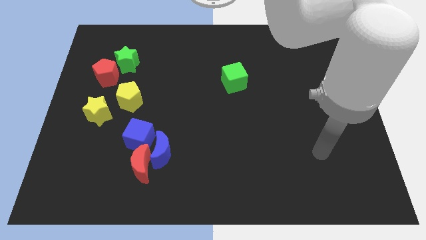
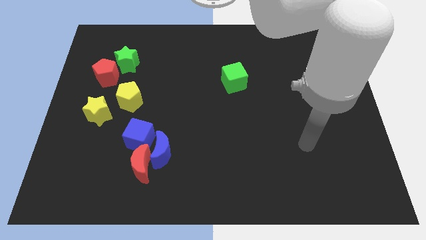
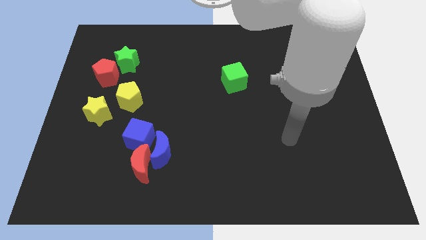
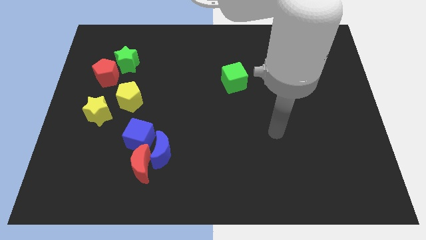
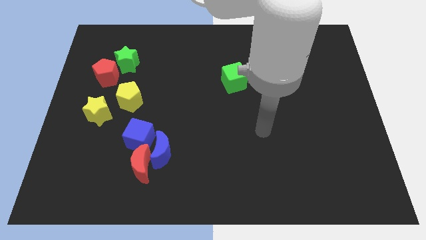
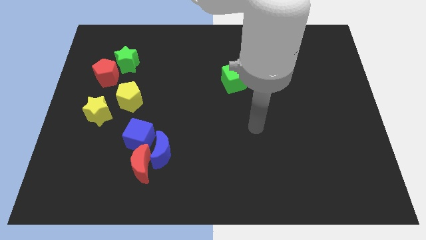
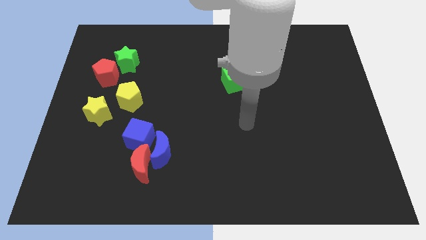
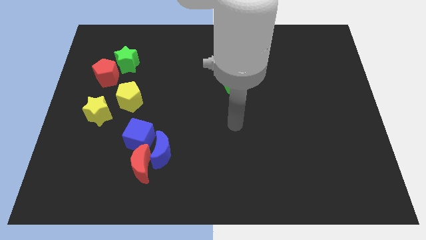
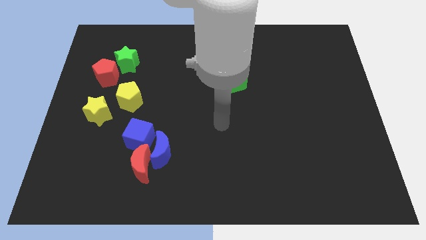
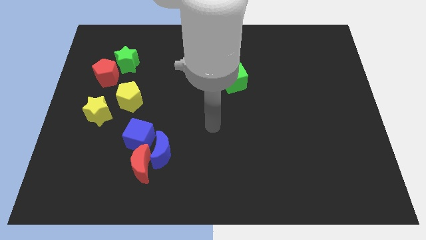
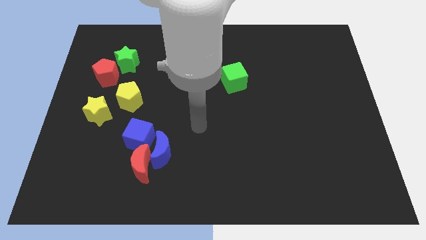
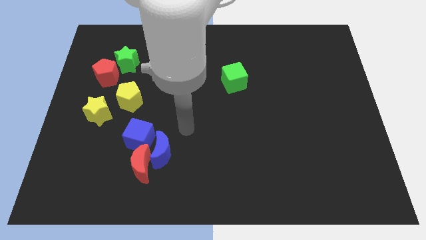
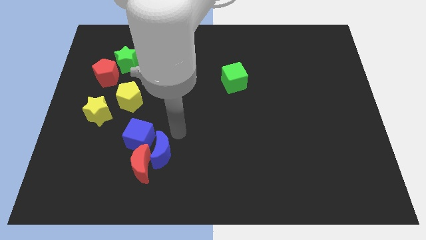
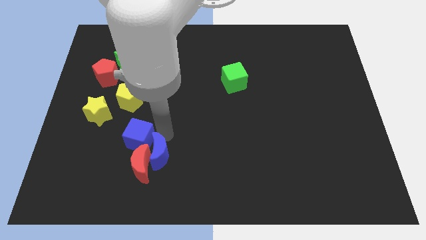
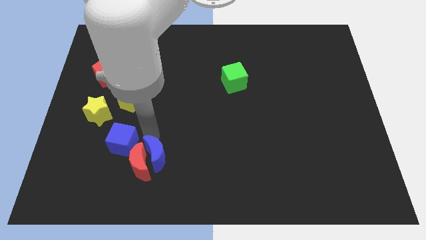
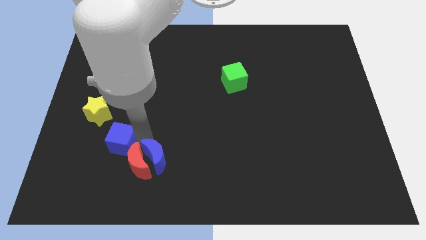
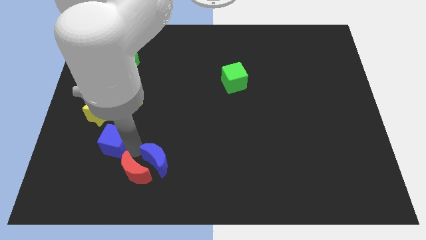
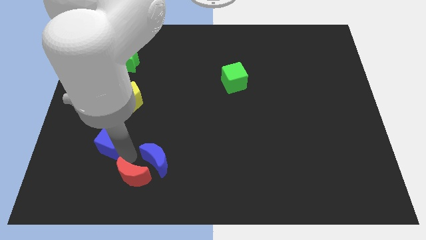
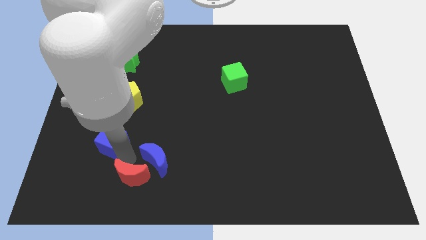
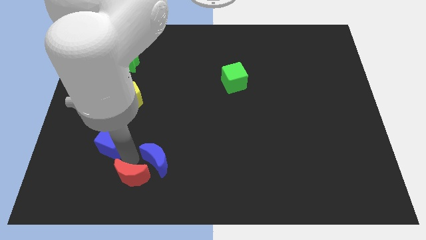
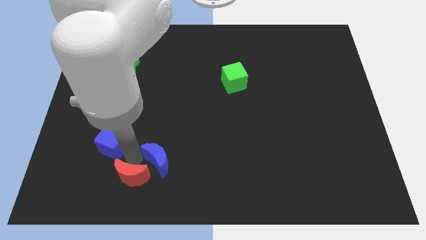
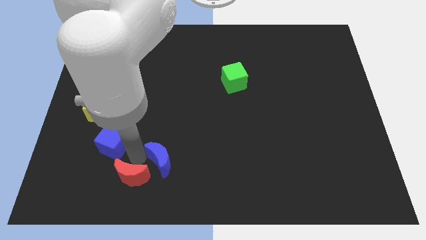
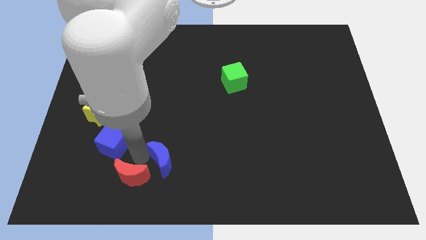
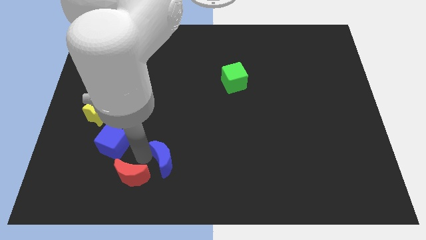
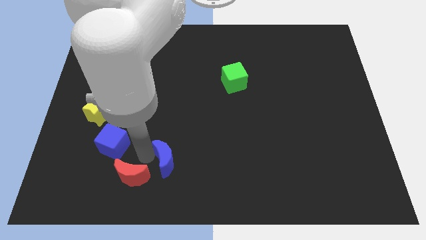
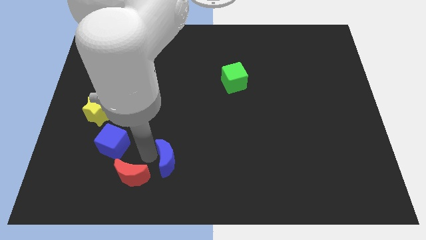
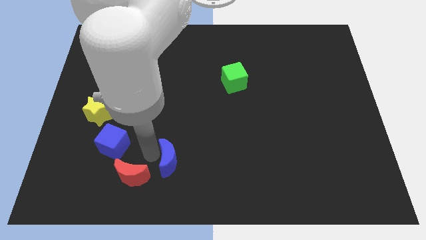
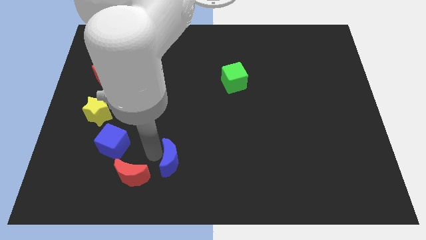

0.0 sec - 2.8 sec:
pull the blue moon apart from the red moon and blue cube

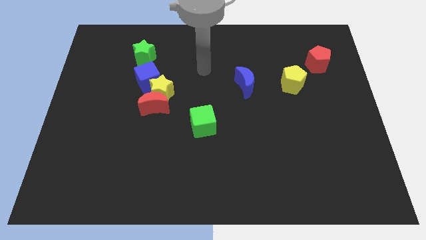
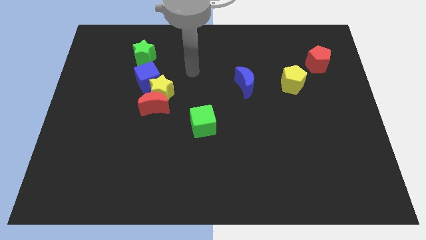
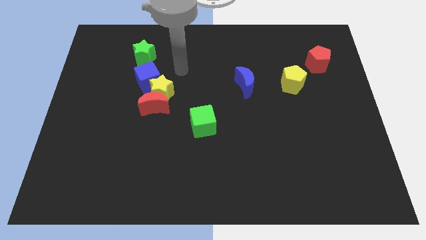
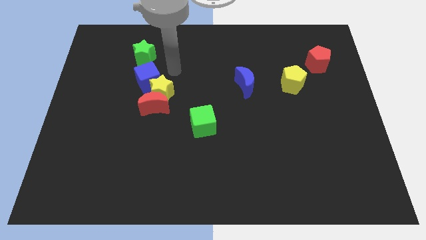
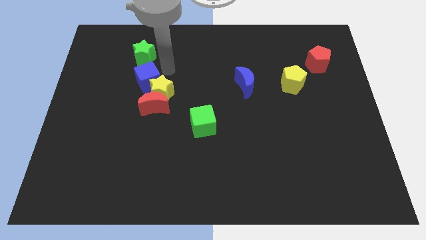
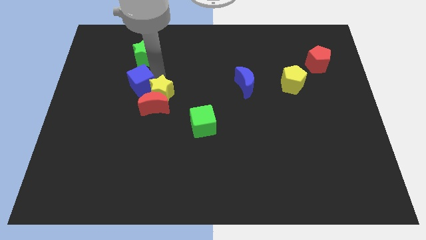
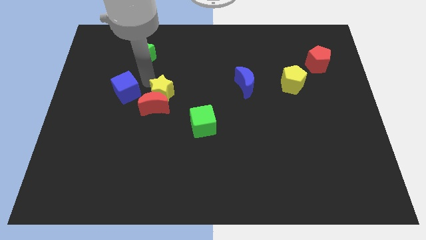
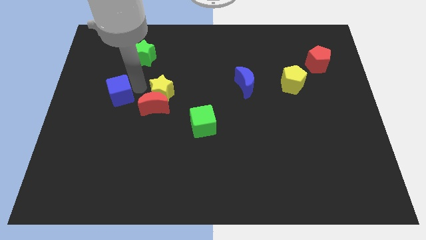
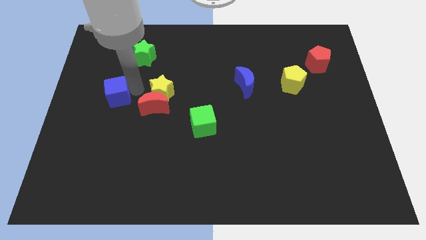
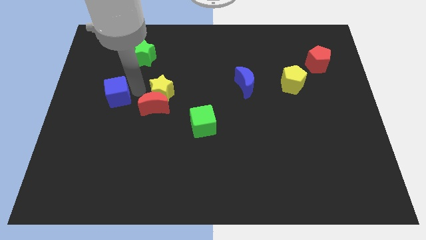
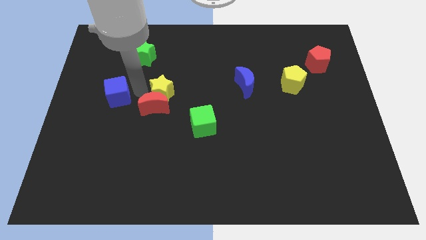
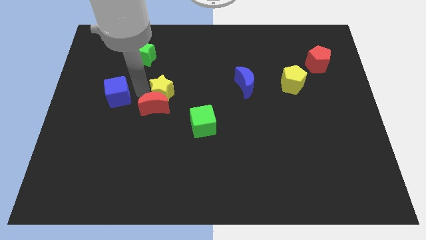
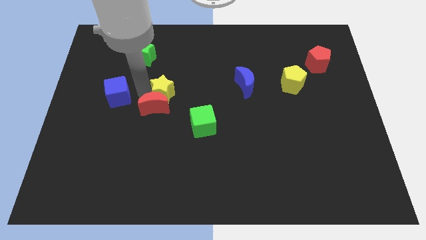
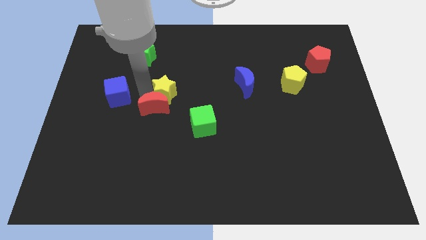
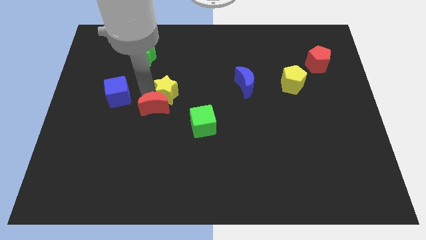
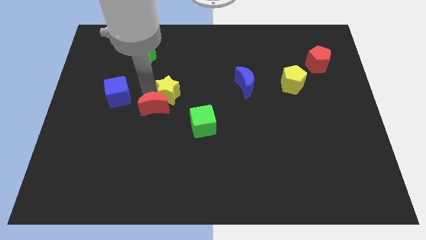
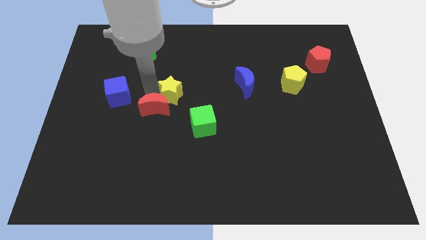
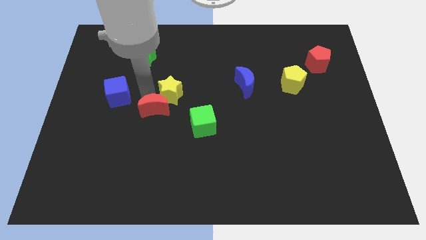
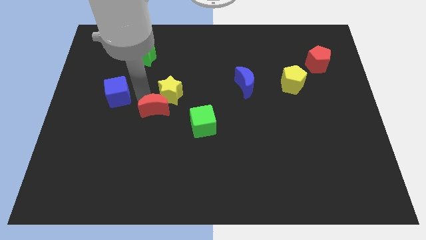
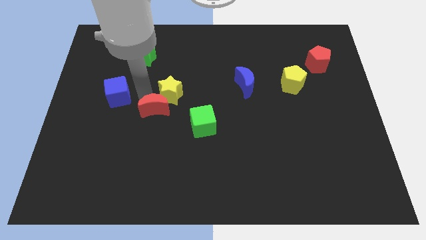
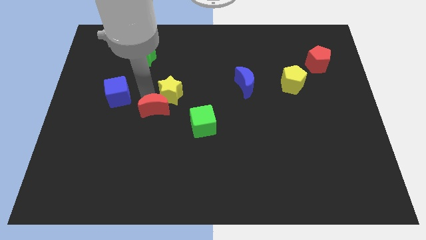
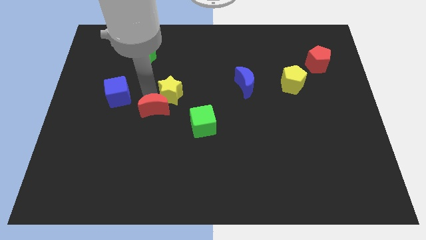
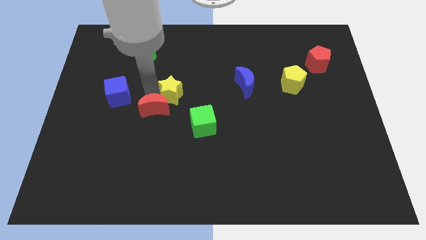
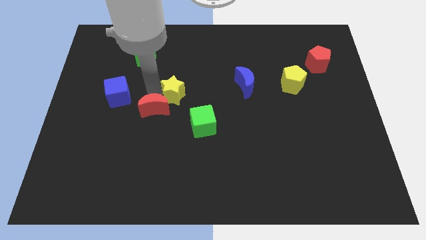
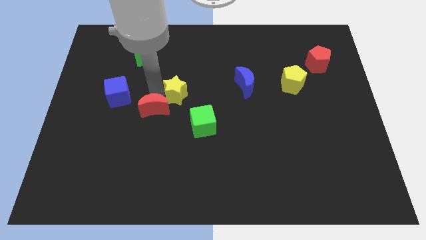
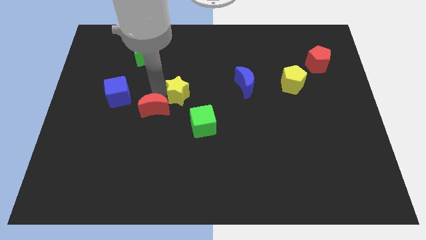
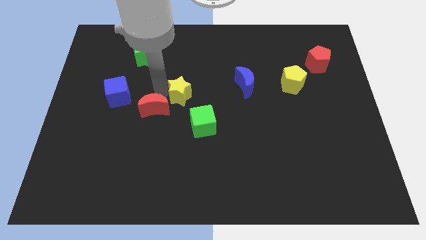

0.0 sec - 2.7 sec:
move the yellow star away from the red moon and blue cube

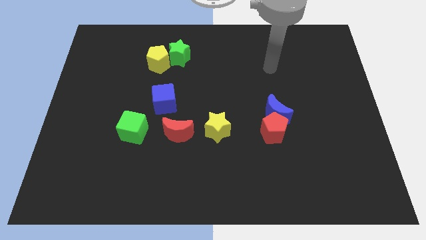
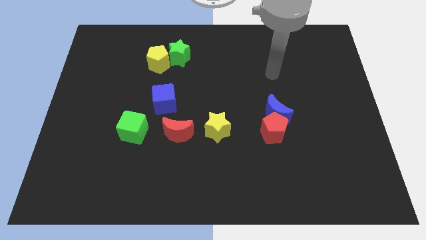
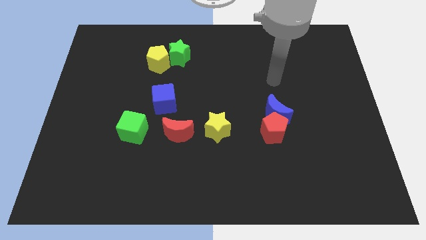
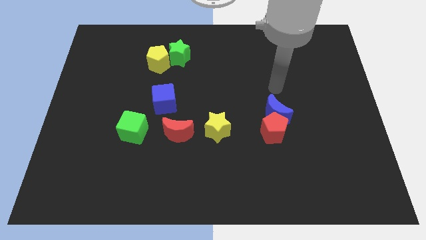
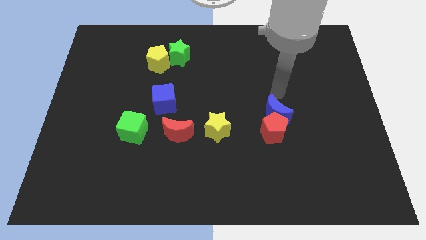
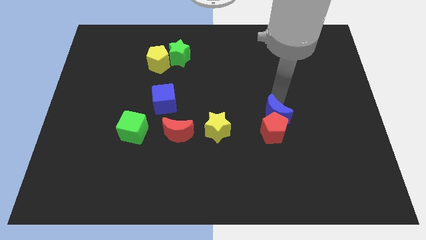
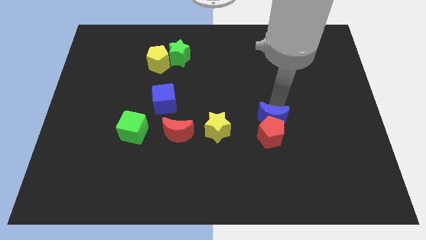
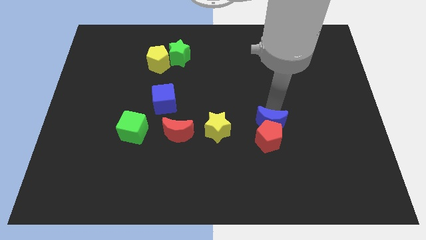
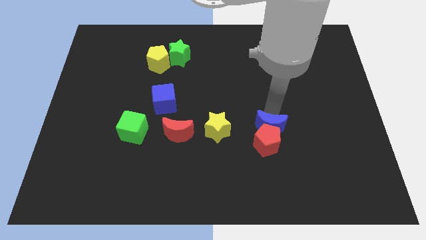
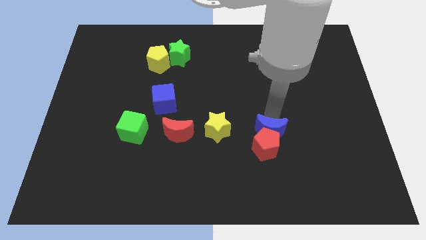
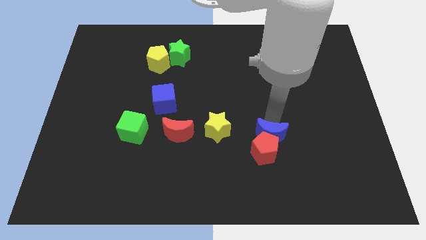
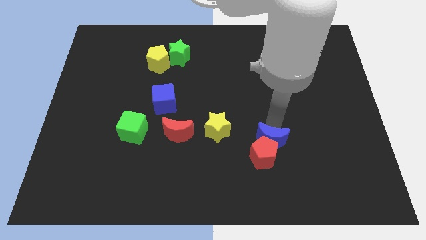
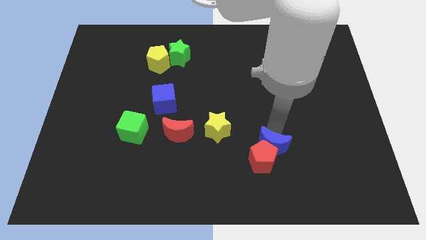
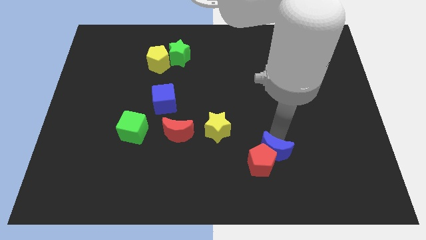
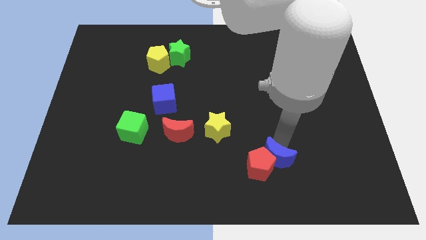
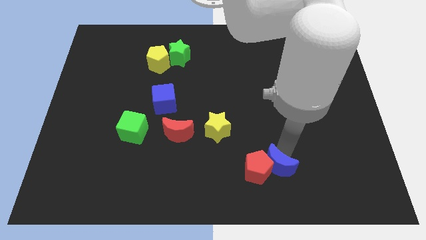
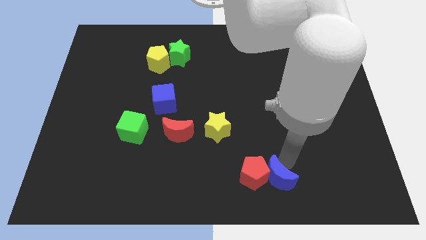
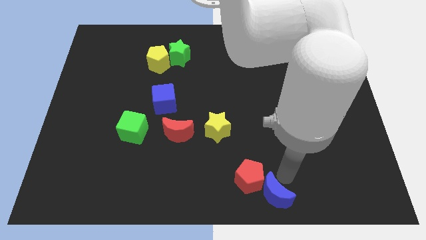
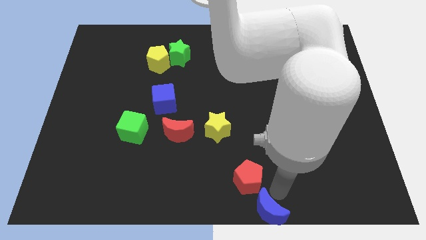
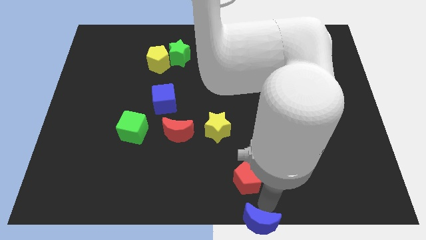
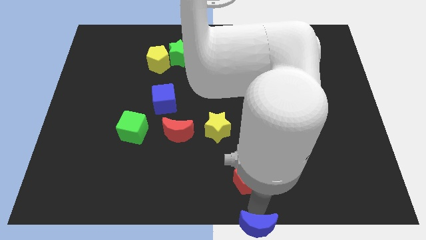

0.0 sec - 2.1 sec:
separate the red pentagon from the blue moon

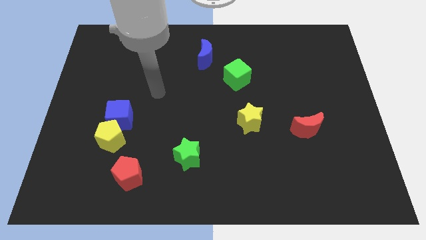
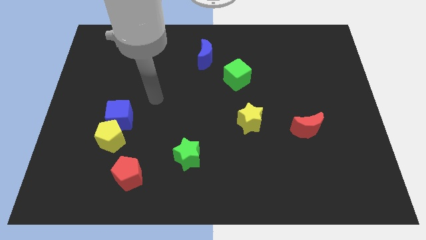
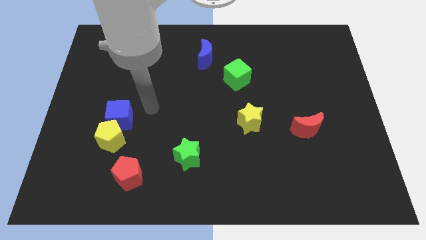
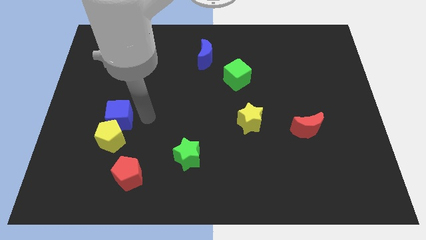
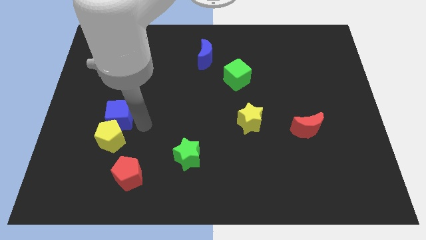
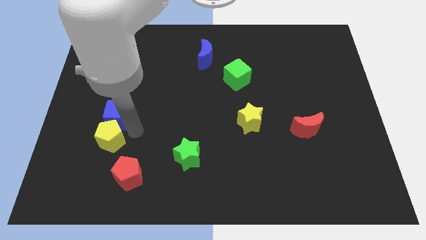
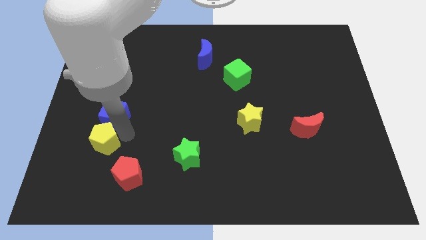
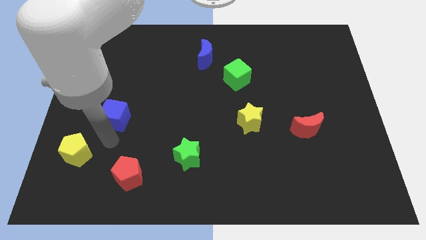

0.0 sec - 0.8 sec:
move the blue cube away from the yellow pentagon

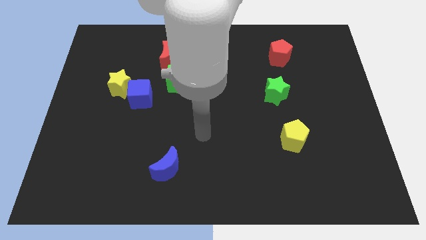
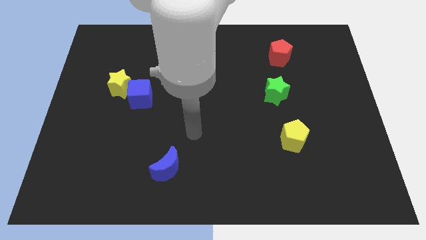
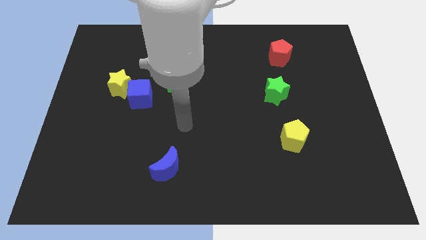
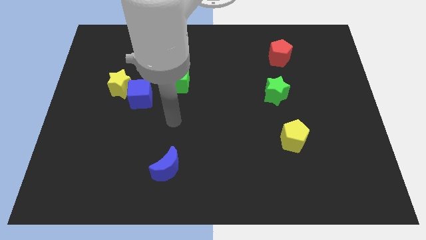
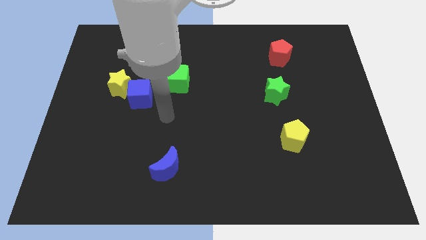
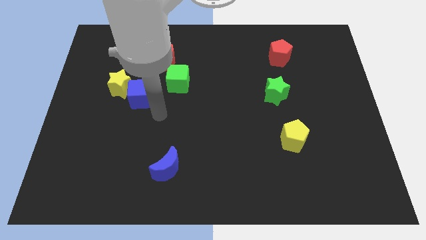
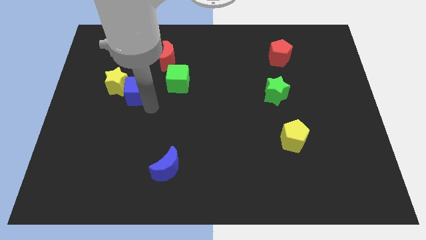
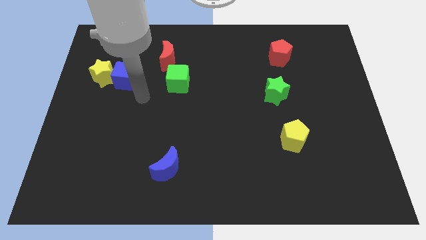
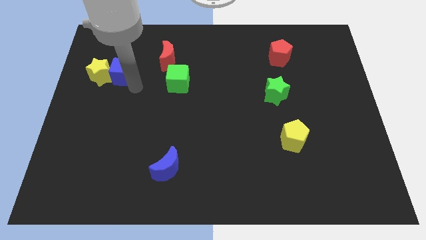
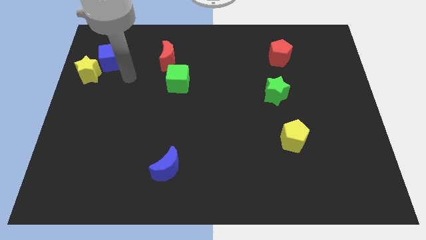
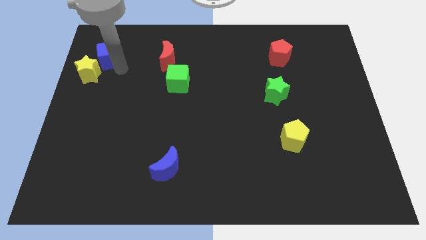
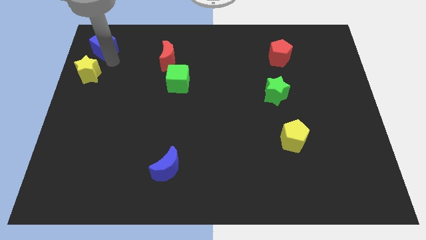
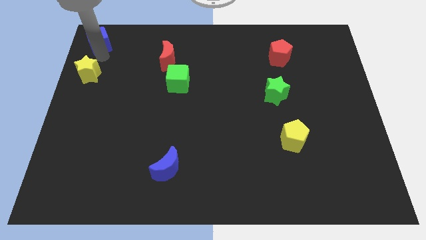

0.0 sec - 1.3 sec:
move the yellow star away from the blue cube
